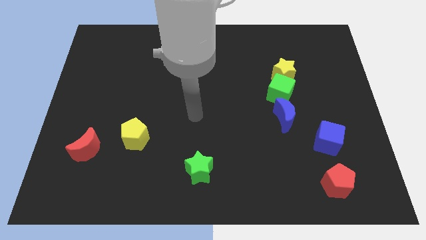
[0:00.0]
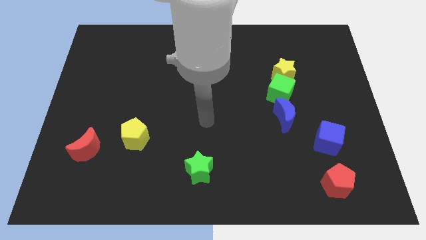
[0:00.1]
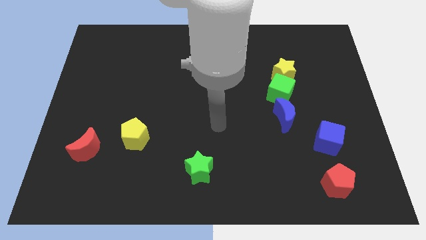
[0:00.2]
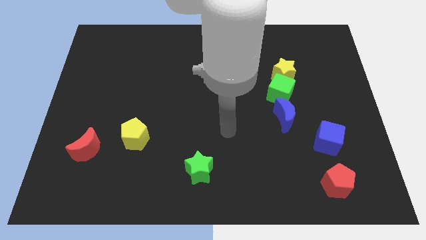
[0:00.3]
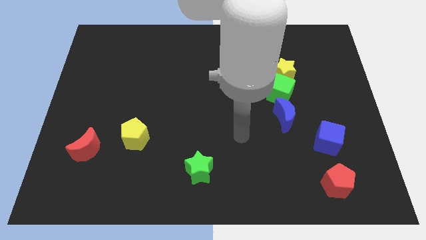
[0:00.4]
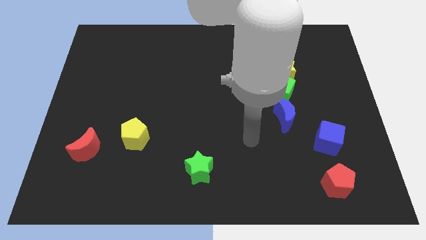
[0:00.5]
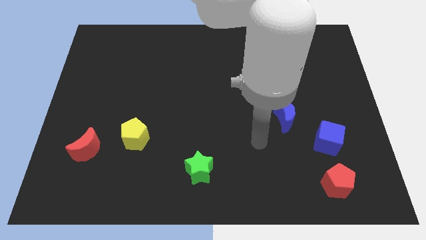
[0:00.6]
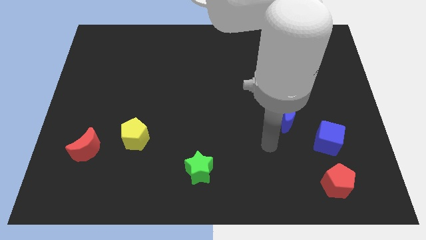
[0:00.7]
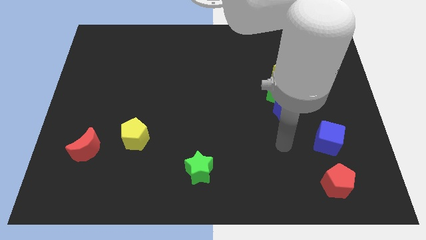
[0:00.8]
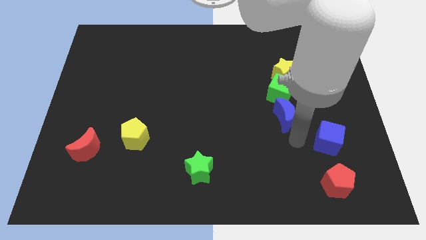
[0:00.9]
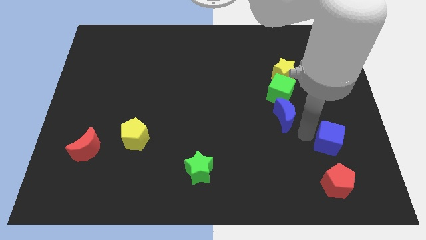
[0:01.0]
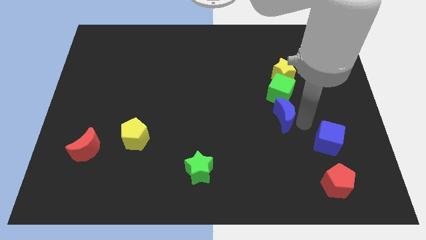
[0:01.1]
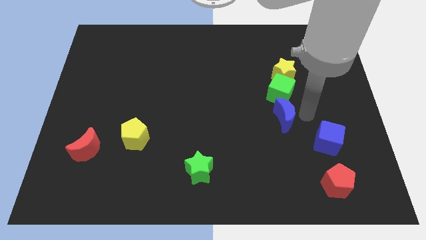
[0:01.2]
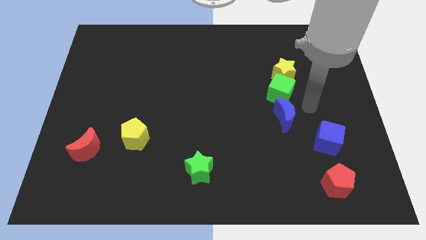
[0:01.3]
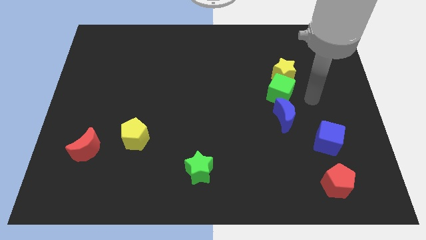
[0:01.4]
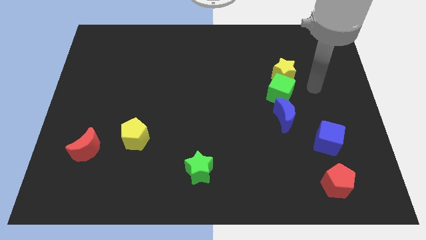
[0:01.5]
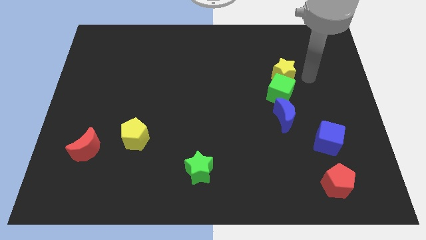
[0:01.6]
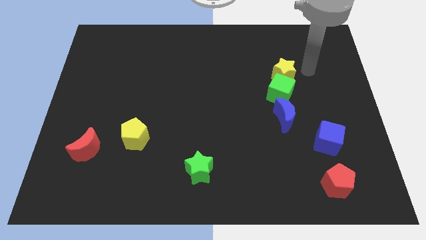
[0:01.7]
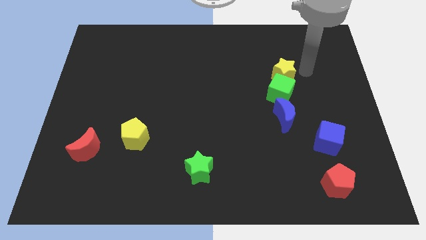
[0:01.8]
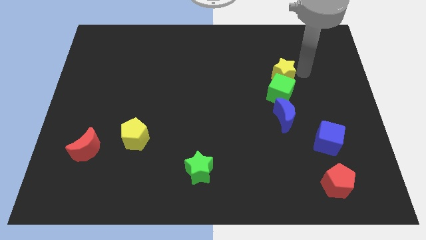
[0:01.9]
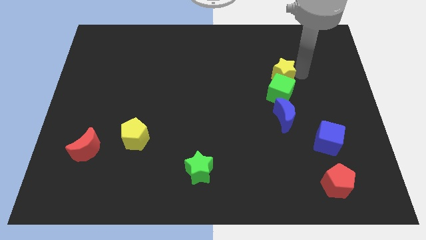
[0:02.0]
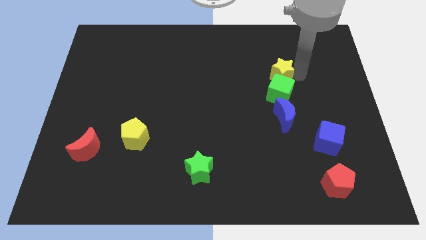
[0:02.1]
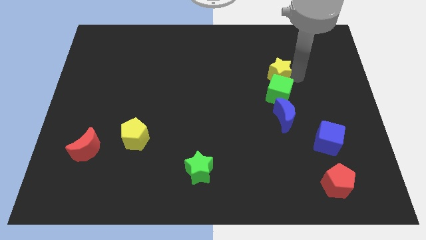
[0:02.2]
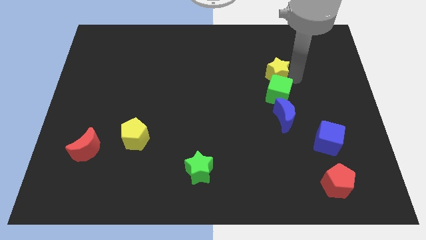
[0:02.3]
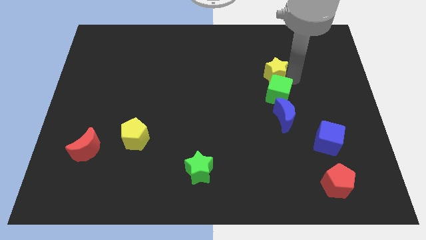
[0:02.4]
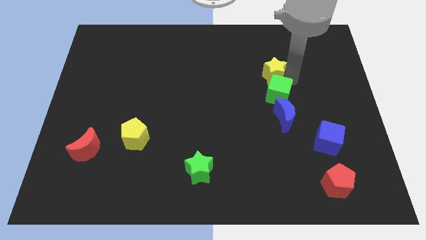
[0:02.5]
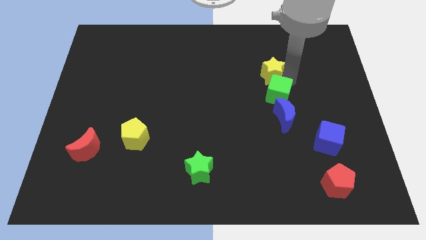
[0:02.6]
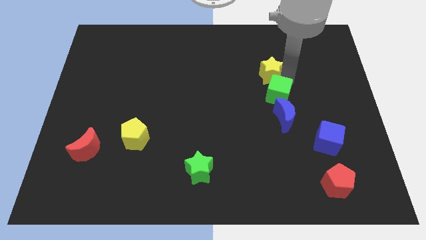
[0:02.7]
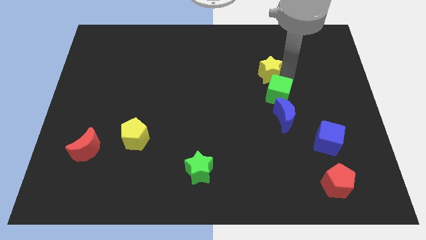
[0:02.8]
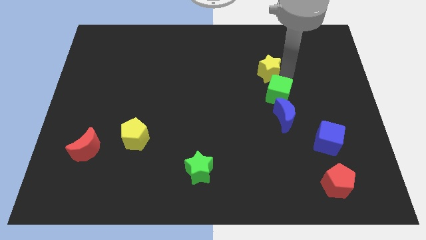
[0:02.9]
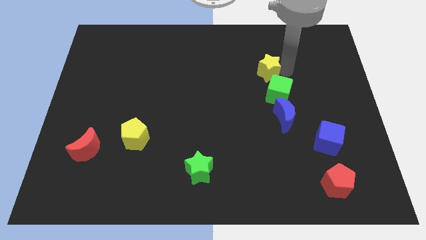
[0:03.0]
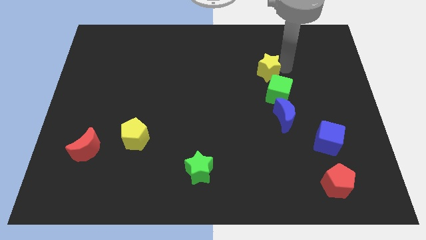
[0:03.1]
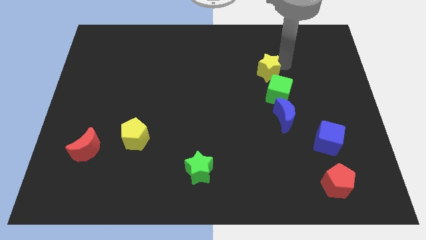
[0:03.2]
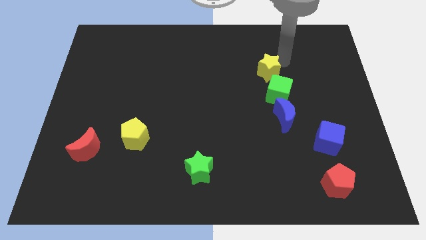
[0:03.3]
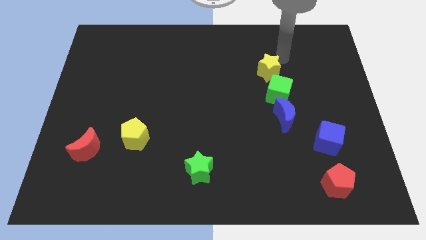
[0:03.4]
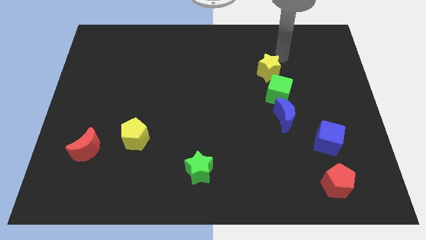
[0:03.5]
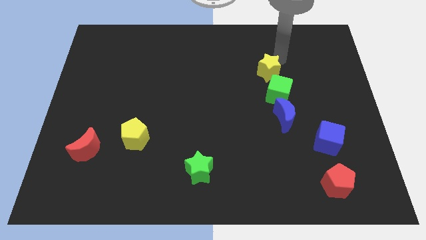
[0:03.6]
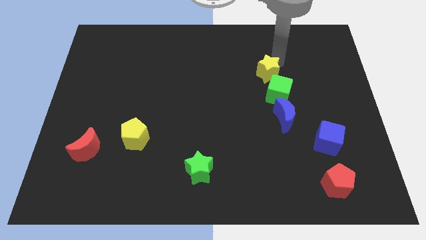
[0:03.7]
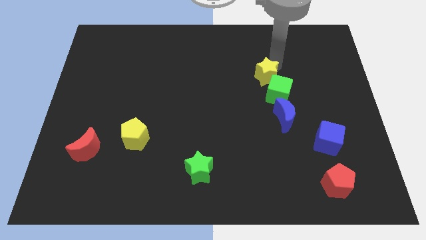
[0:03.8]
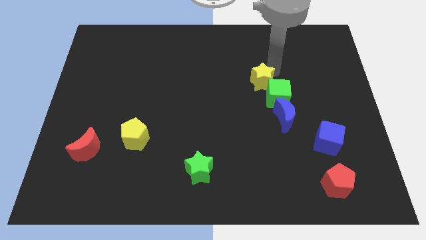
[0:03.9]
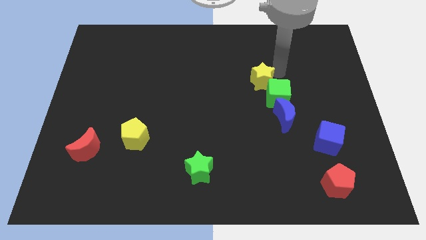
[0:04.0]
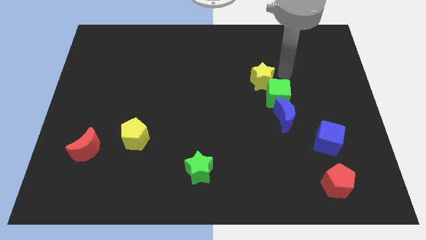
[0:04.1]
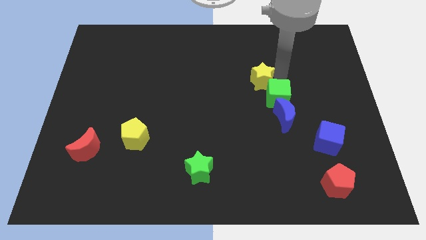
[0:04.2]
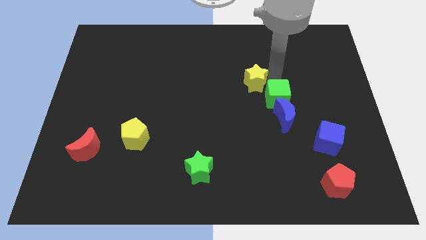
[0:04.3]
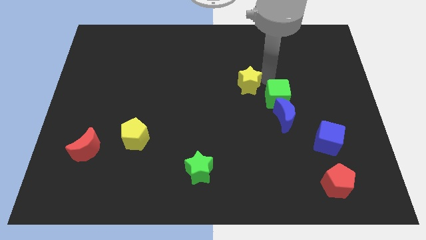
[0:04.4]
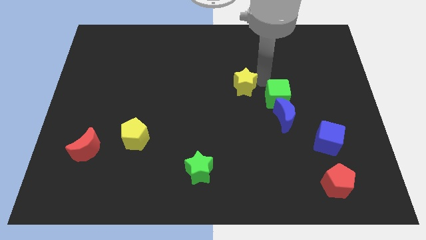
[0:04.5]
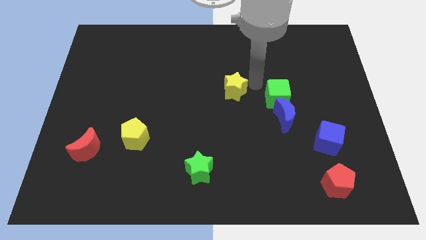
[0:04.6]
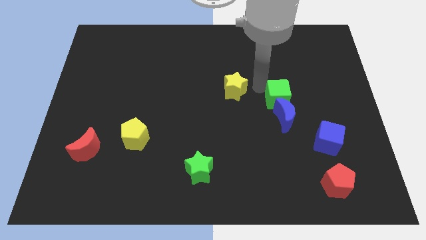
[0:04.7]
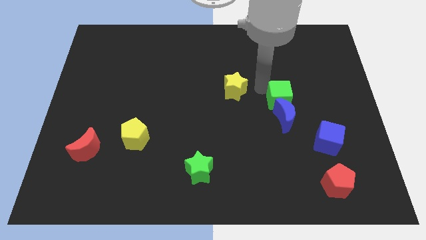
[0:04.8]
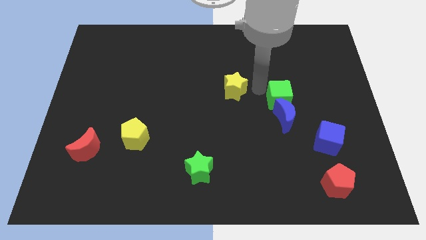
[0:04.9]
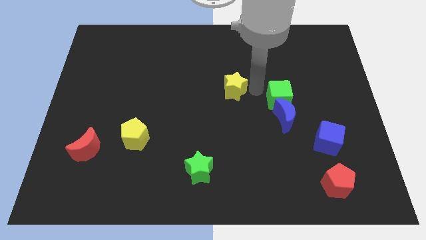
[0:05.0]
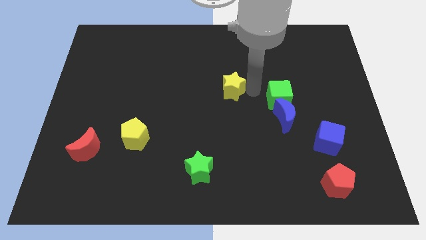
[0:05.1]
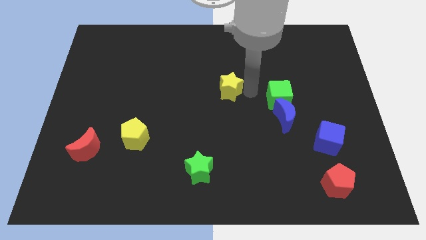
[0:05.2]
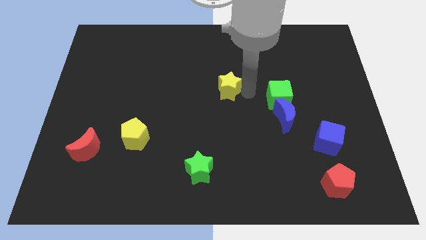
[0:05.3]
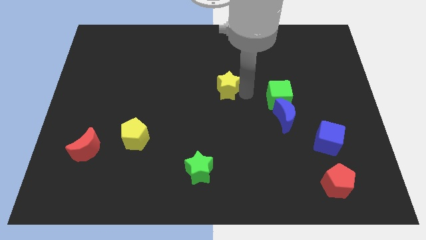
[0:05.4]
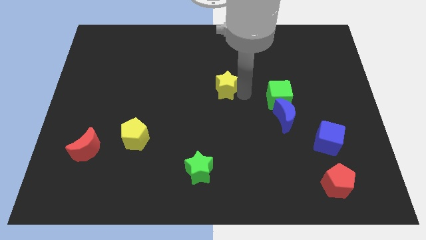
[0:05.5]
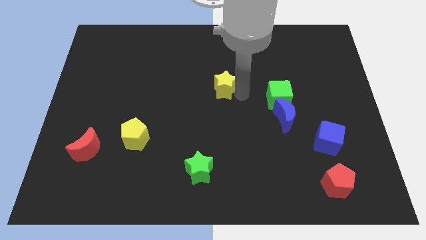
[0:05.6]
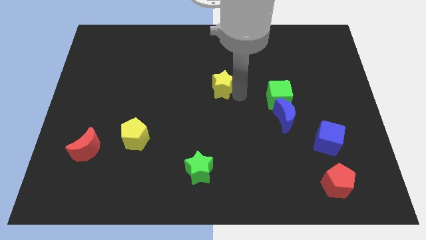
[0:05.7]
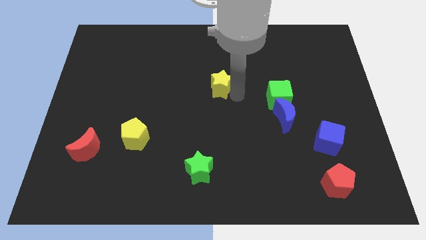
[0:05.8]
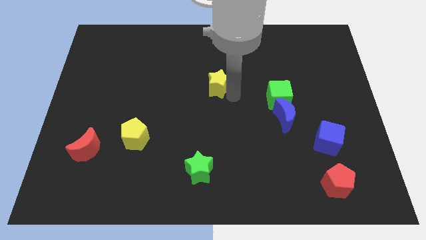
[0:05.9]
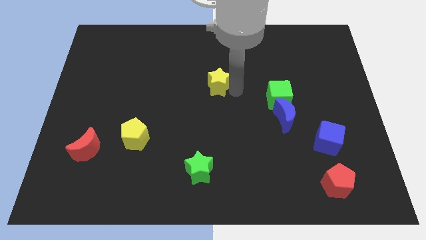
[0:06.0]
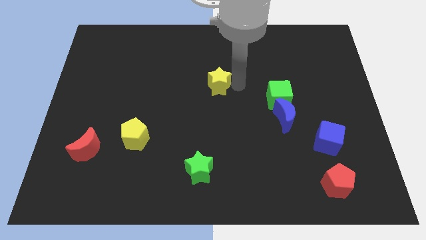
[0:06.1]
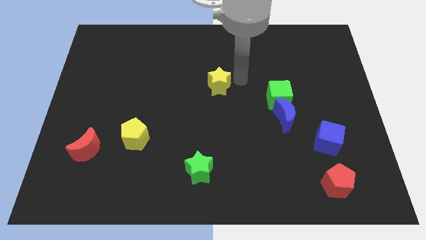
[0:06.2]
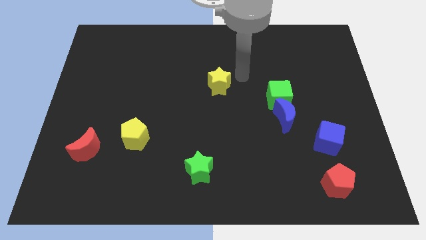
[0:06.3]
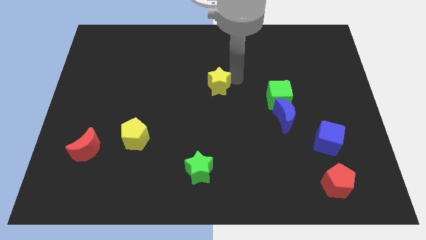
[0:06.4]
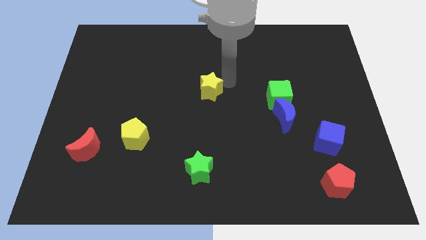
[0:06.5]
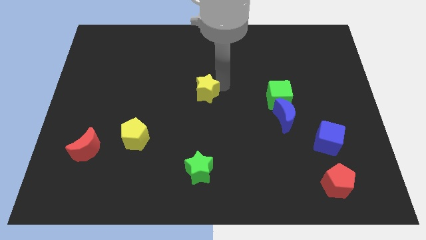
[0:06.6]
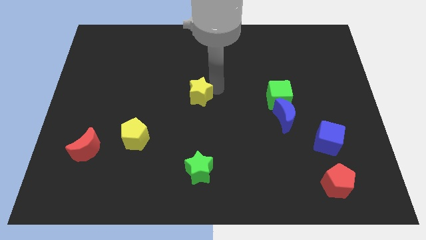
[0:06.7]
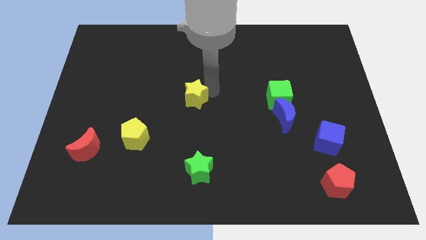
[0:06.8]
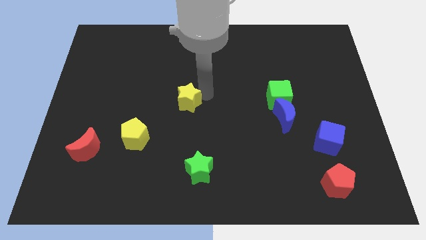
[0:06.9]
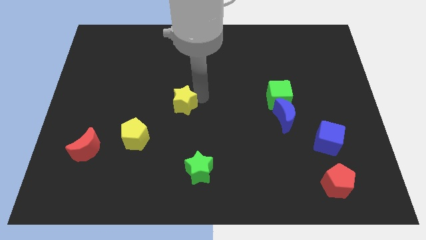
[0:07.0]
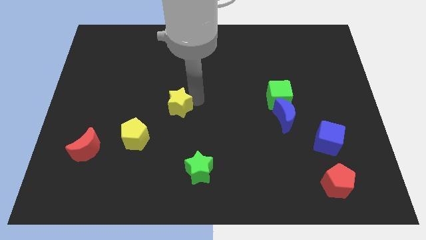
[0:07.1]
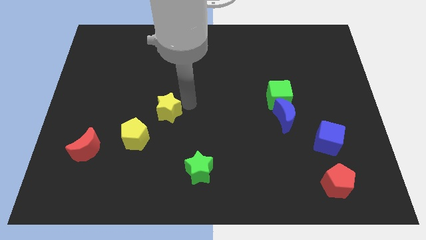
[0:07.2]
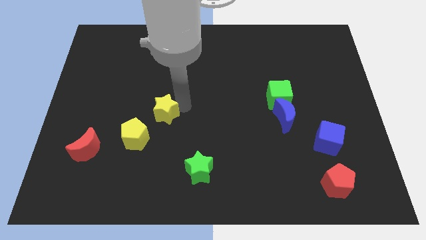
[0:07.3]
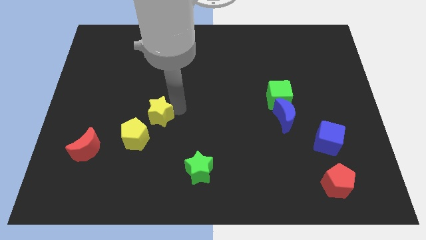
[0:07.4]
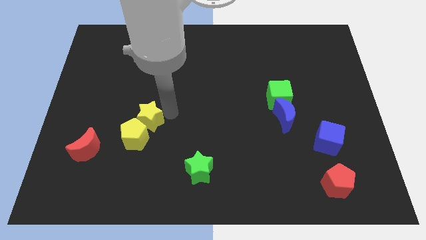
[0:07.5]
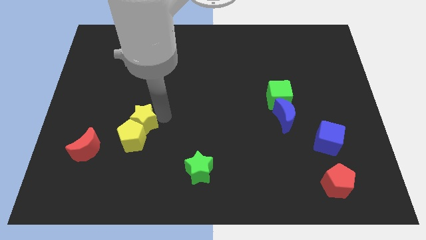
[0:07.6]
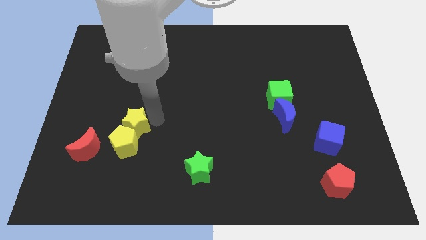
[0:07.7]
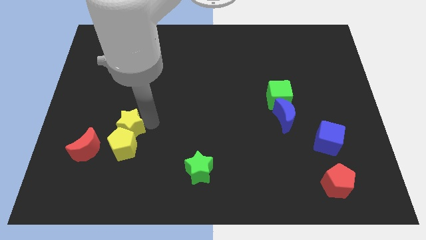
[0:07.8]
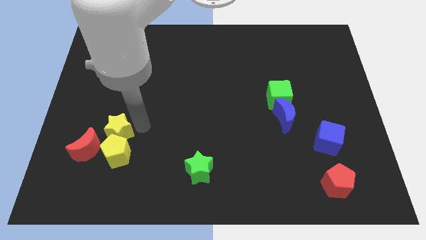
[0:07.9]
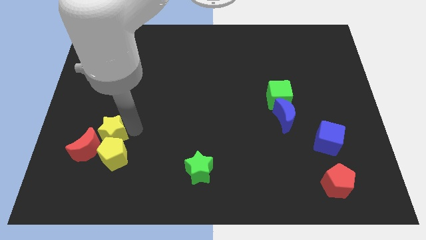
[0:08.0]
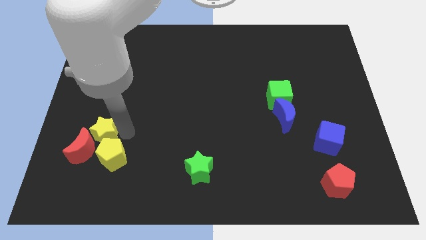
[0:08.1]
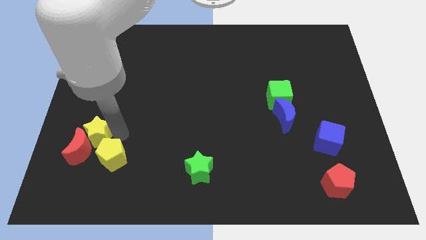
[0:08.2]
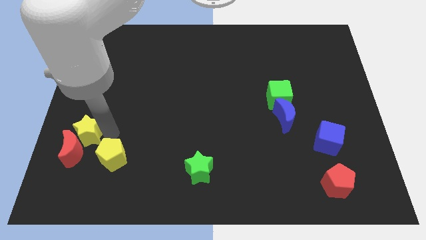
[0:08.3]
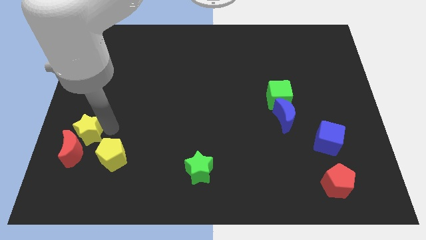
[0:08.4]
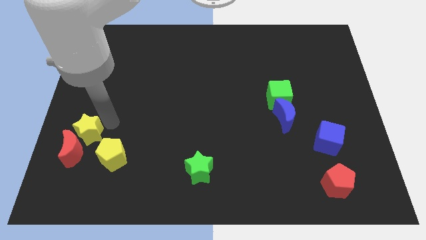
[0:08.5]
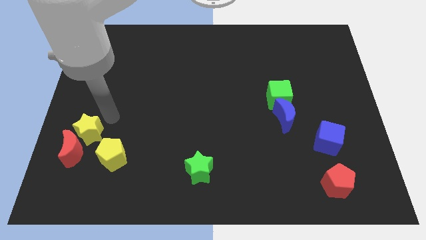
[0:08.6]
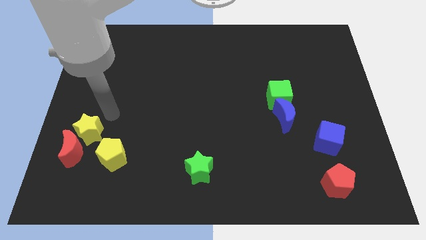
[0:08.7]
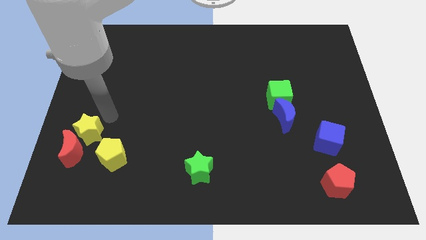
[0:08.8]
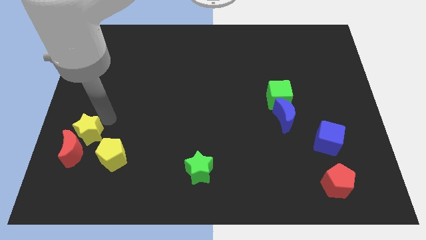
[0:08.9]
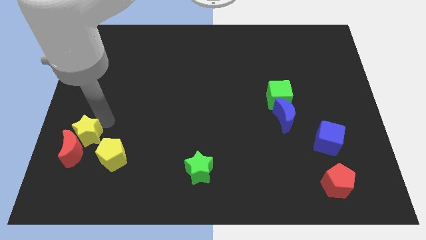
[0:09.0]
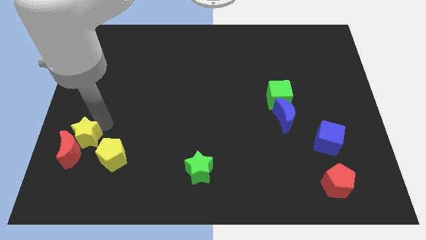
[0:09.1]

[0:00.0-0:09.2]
push the yellow star to the left side of the yellow pentagon
